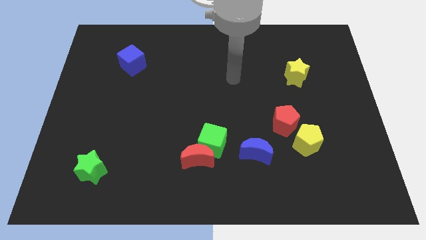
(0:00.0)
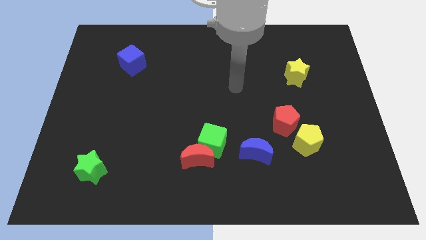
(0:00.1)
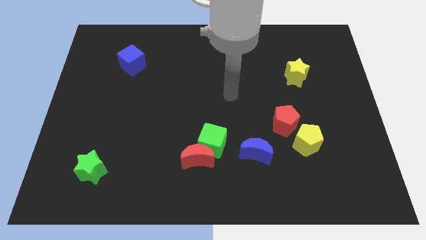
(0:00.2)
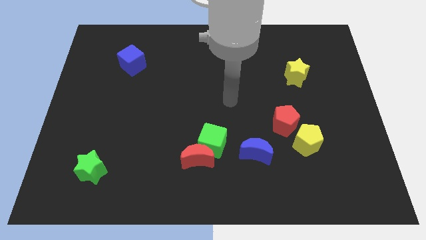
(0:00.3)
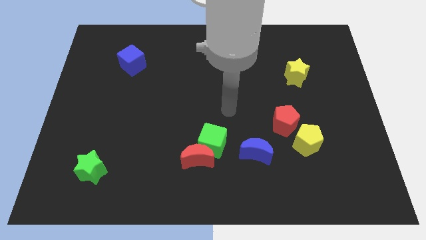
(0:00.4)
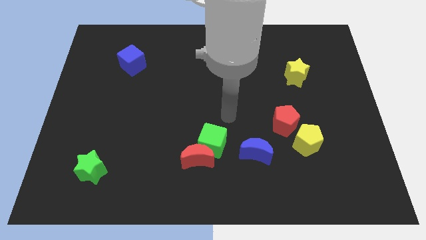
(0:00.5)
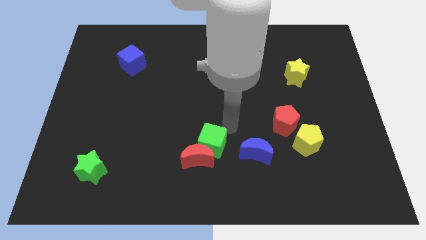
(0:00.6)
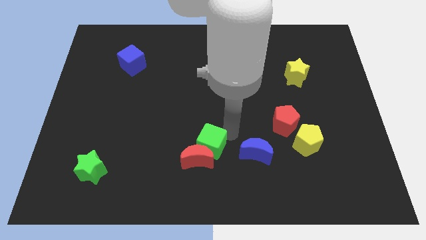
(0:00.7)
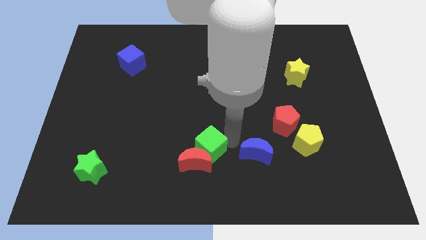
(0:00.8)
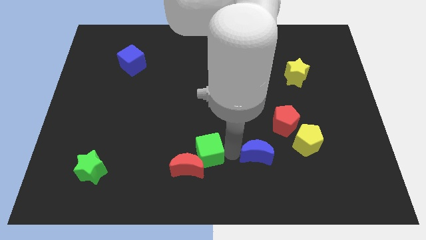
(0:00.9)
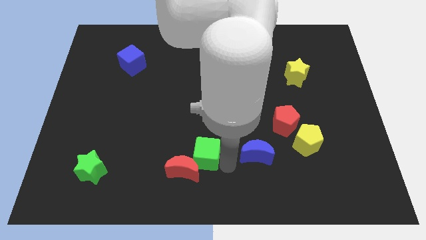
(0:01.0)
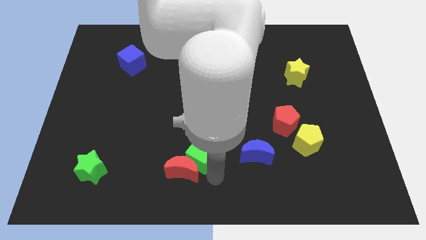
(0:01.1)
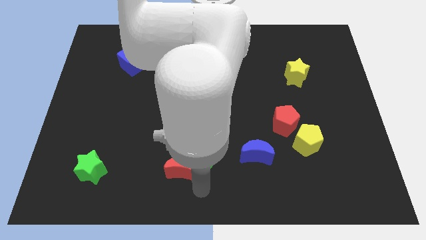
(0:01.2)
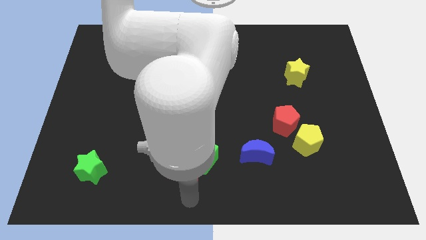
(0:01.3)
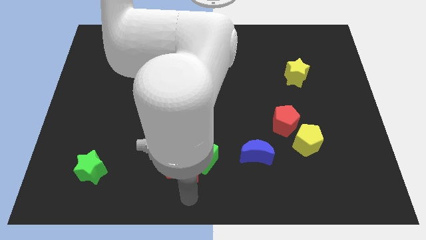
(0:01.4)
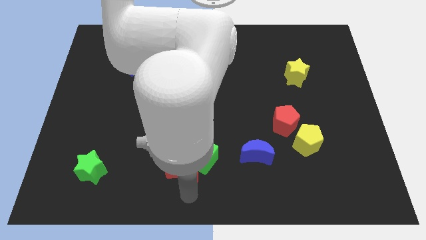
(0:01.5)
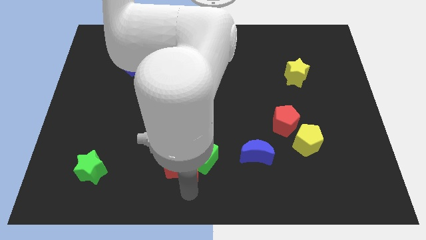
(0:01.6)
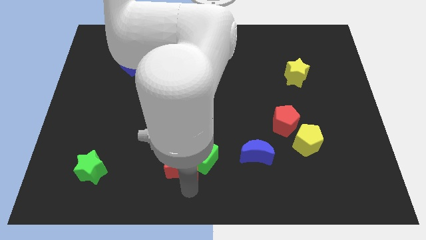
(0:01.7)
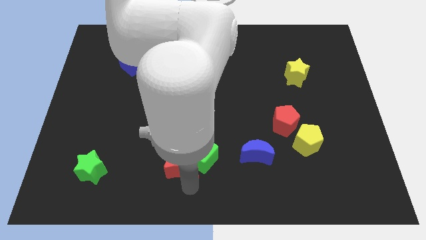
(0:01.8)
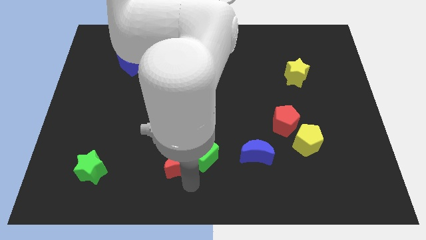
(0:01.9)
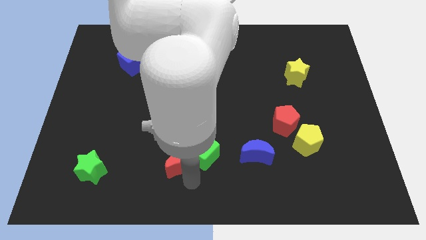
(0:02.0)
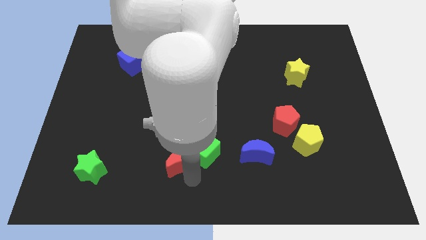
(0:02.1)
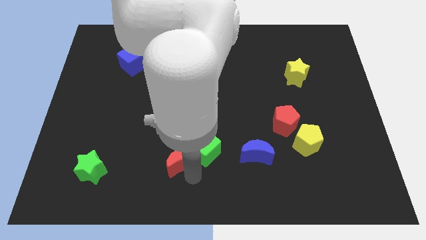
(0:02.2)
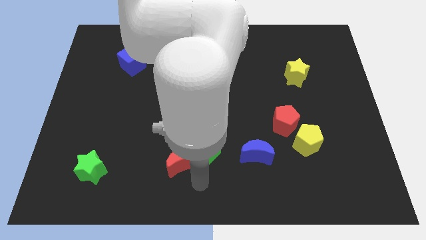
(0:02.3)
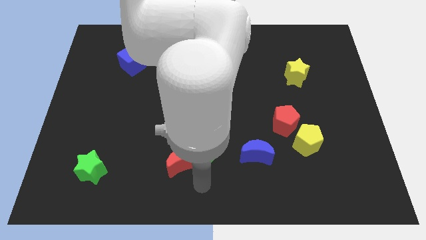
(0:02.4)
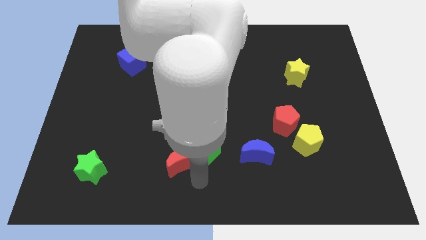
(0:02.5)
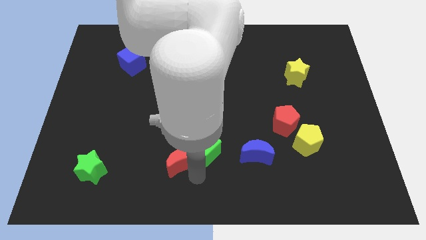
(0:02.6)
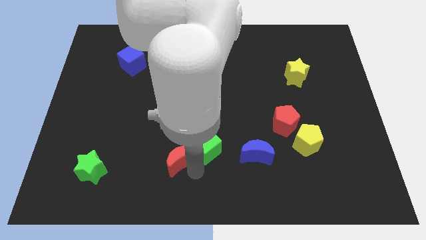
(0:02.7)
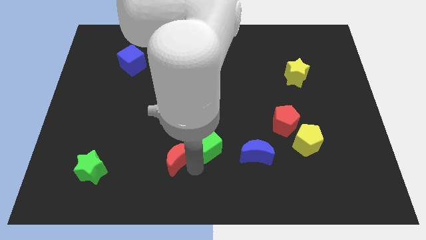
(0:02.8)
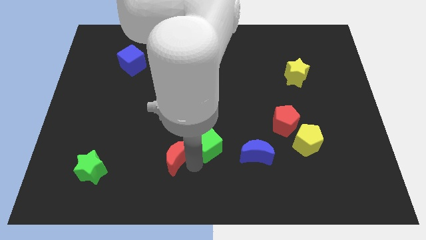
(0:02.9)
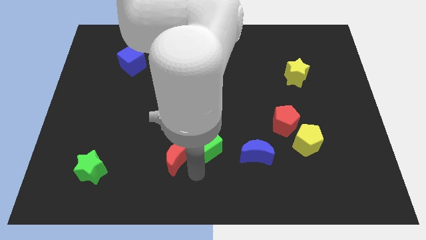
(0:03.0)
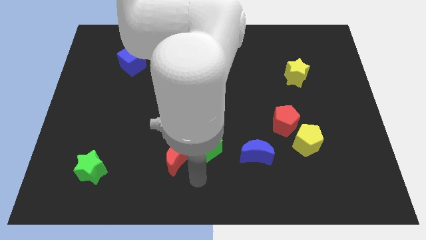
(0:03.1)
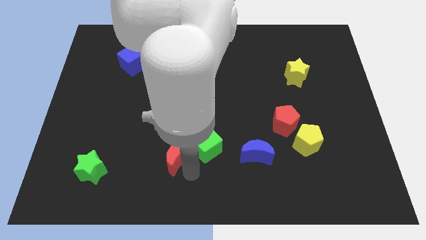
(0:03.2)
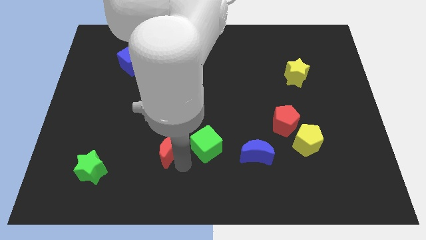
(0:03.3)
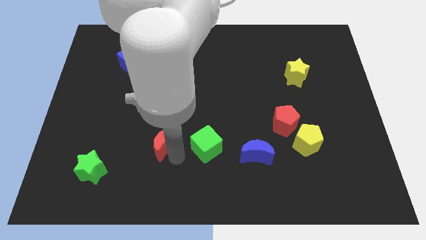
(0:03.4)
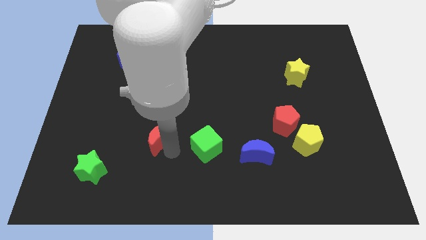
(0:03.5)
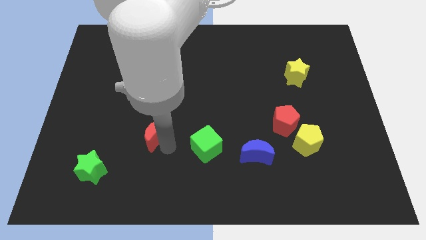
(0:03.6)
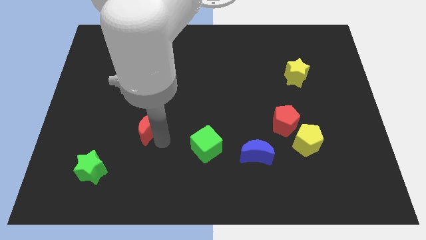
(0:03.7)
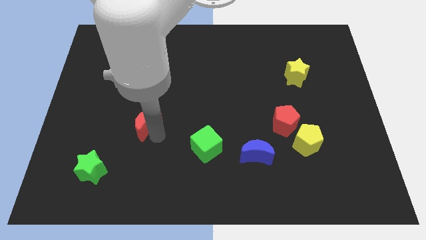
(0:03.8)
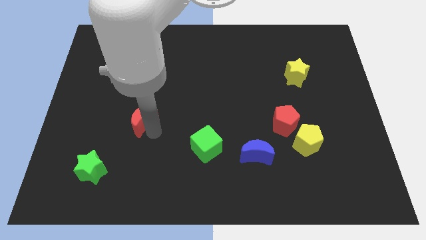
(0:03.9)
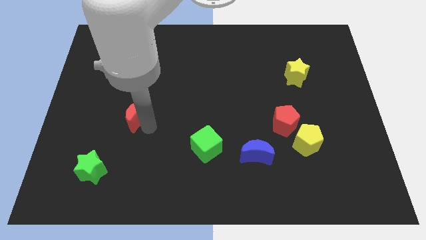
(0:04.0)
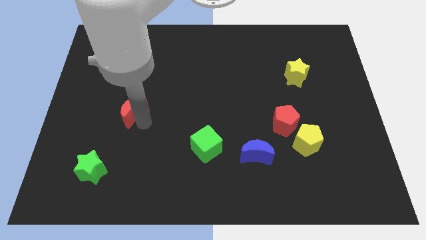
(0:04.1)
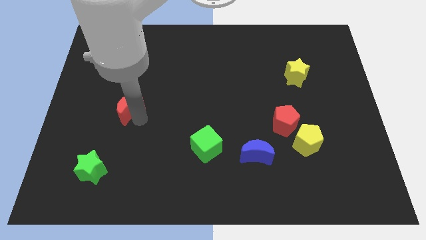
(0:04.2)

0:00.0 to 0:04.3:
move the red moon upwards and to the left diagonally

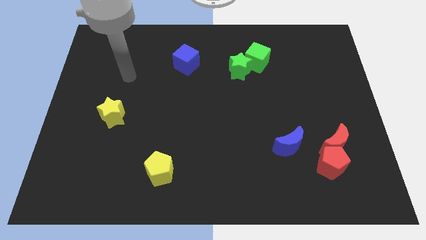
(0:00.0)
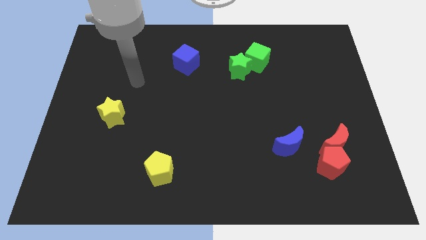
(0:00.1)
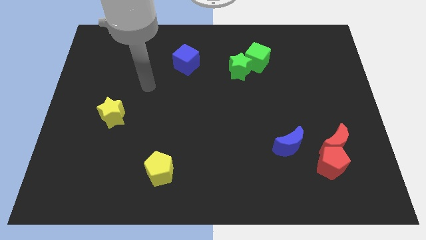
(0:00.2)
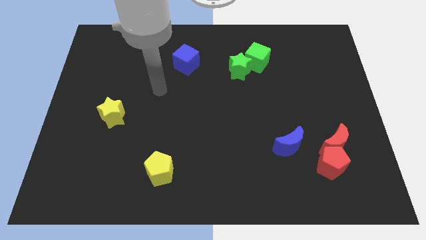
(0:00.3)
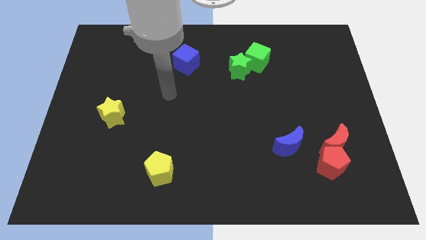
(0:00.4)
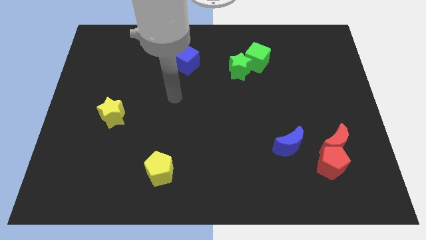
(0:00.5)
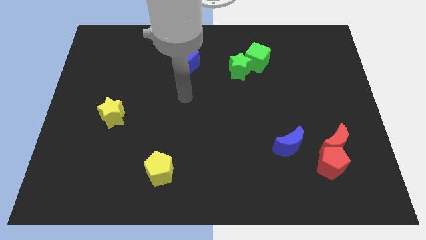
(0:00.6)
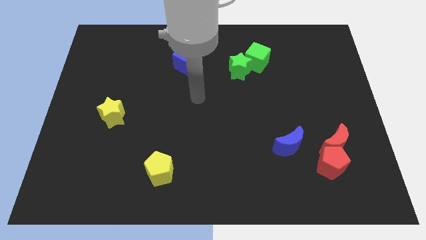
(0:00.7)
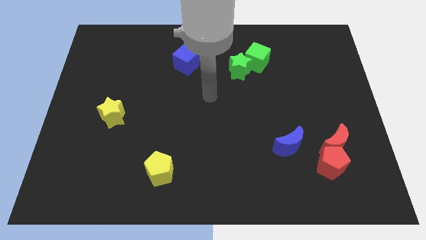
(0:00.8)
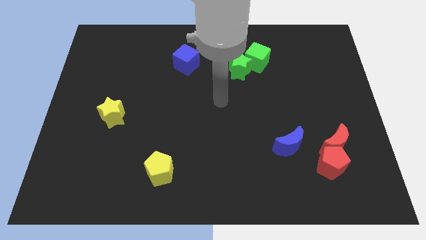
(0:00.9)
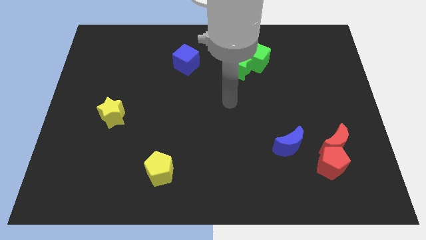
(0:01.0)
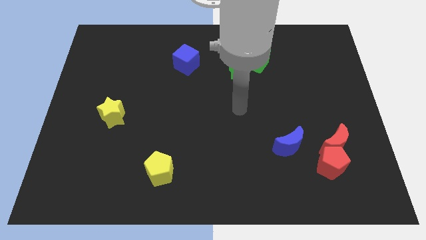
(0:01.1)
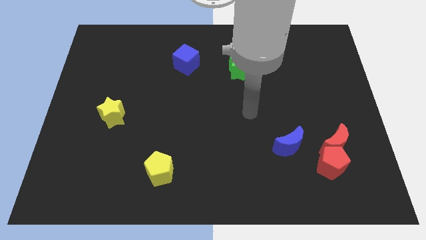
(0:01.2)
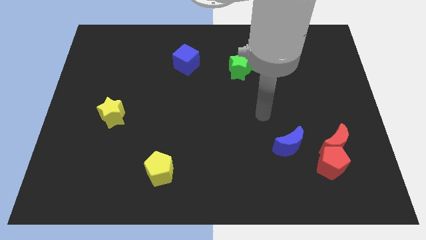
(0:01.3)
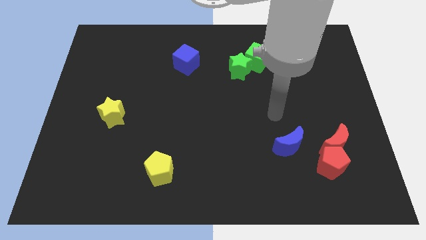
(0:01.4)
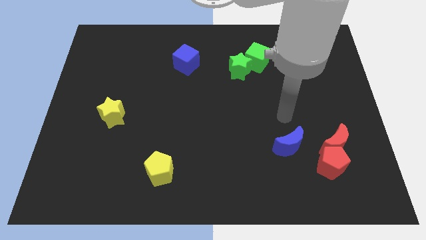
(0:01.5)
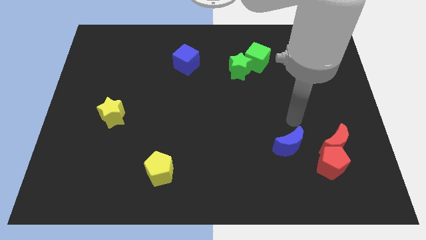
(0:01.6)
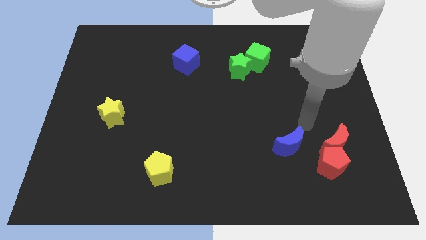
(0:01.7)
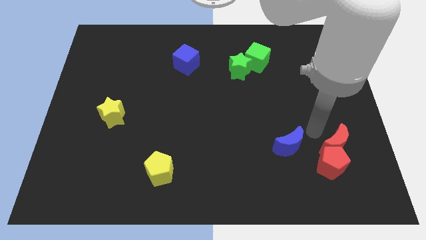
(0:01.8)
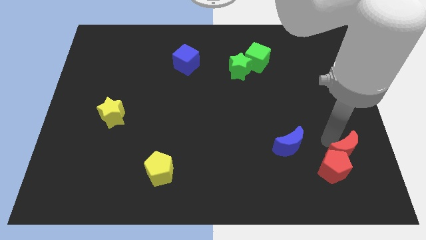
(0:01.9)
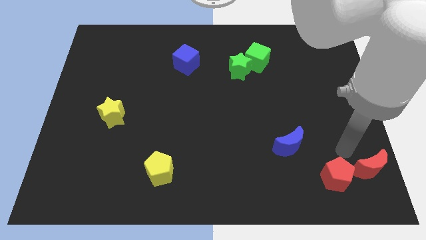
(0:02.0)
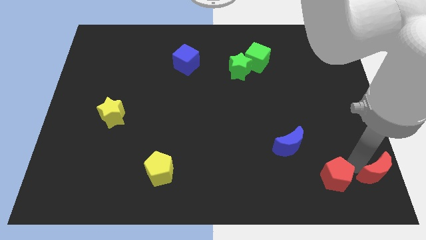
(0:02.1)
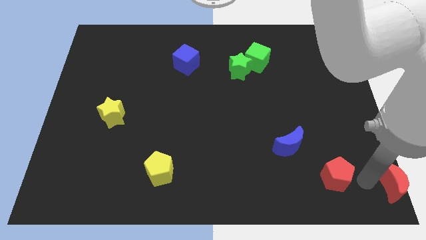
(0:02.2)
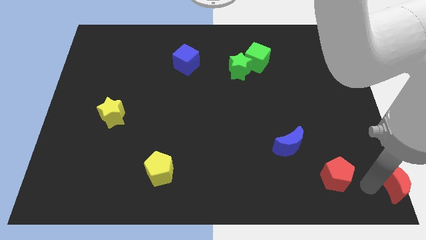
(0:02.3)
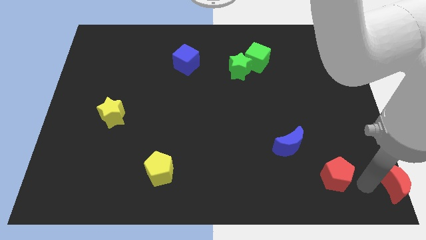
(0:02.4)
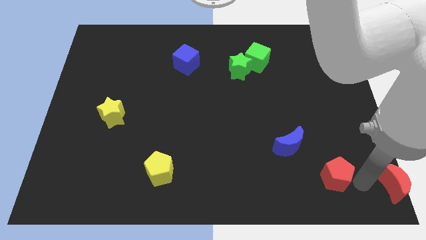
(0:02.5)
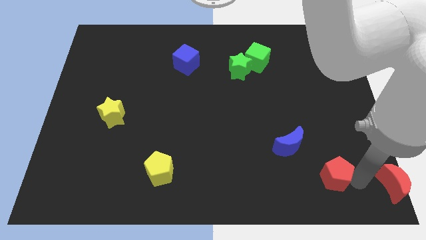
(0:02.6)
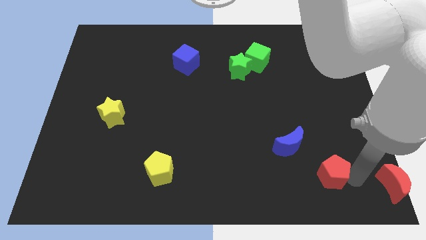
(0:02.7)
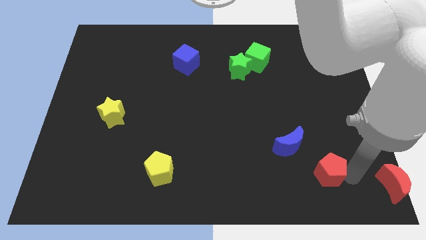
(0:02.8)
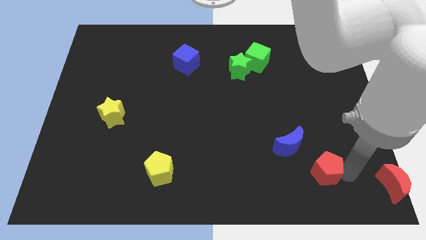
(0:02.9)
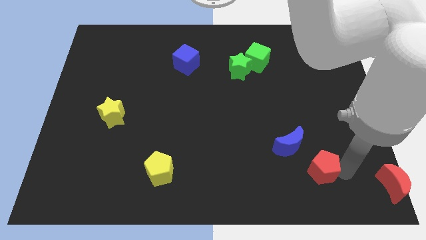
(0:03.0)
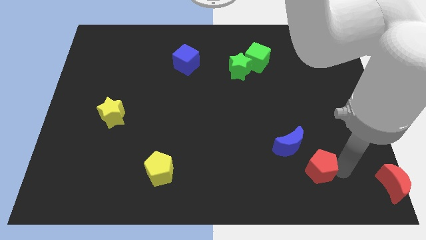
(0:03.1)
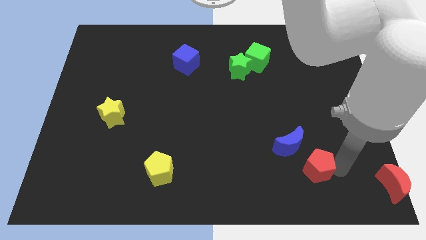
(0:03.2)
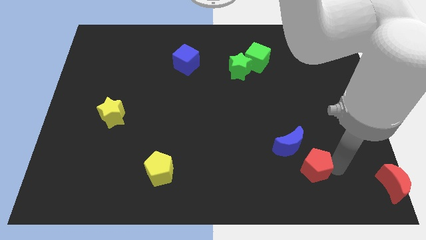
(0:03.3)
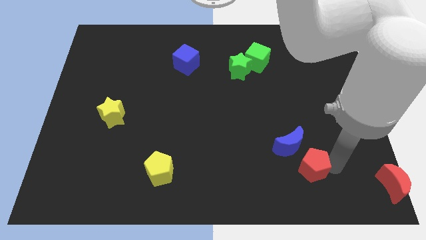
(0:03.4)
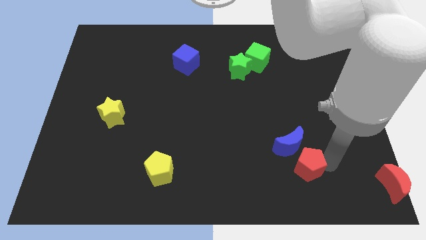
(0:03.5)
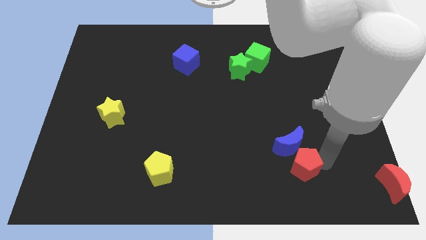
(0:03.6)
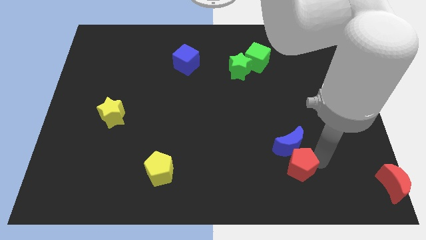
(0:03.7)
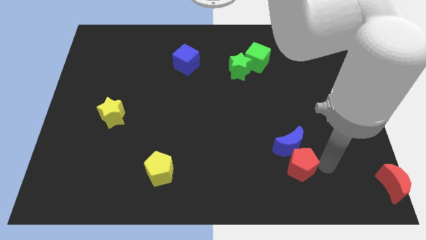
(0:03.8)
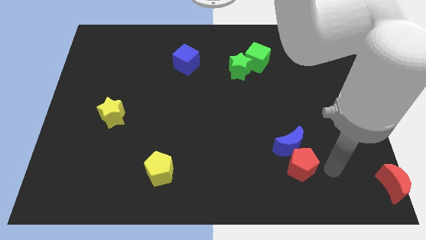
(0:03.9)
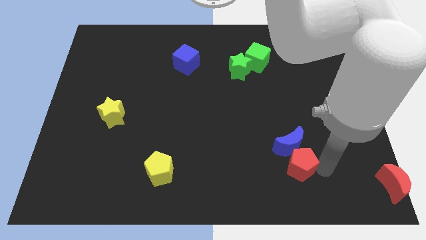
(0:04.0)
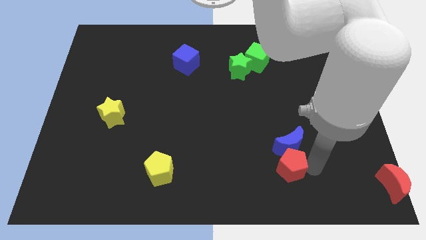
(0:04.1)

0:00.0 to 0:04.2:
slide the red pentagon a little bit left
